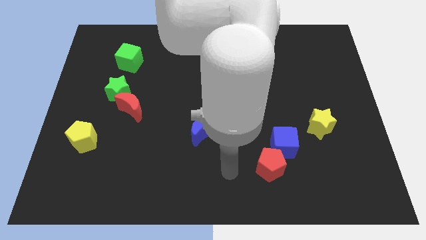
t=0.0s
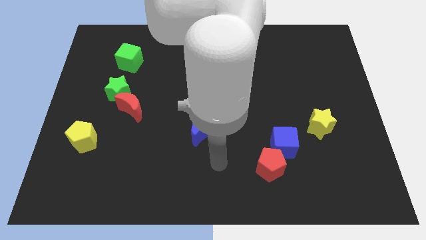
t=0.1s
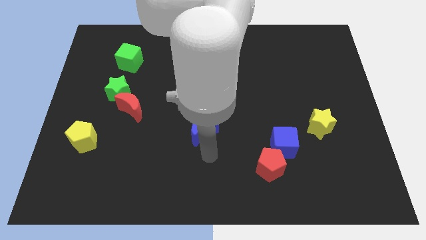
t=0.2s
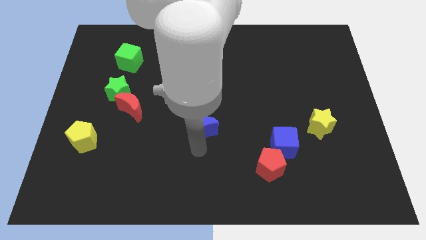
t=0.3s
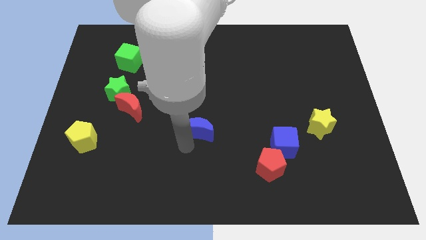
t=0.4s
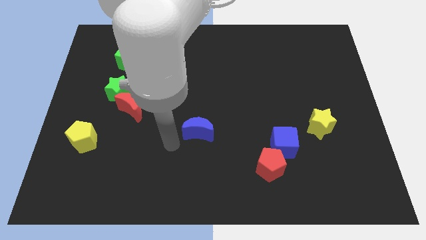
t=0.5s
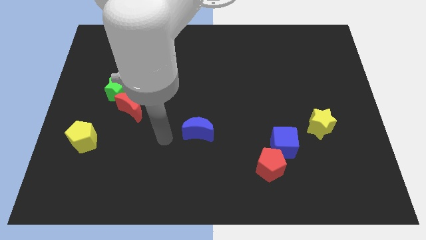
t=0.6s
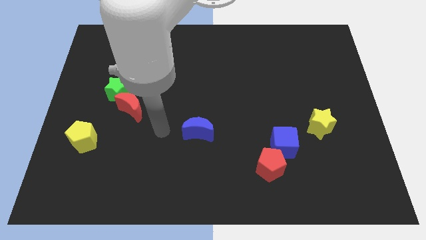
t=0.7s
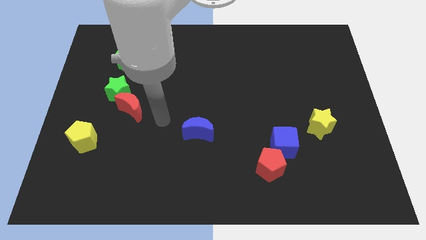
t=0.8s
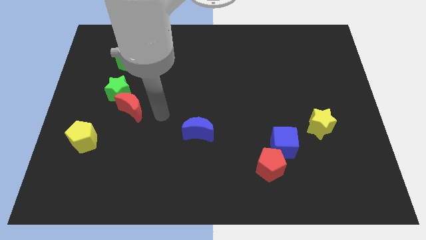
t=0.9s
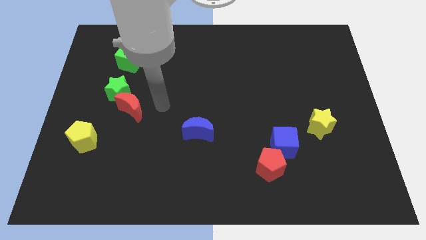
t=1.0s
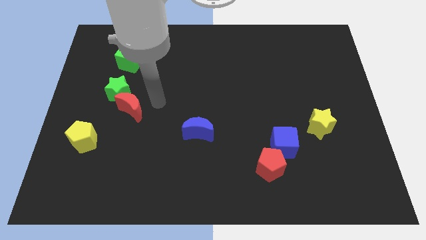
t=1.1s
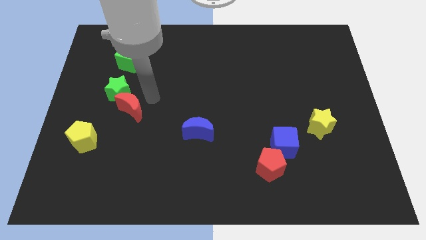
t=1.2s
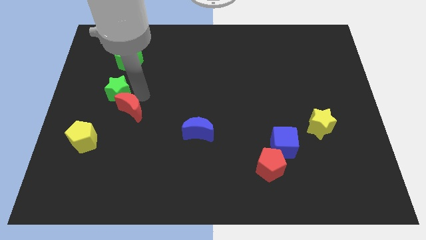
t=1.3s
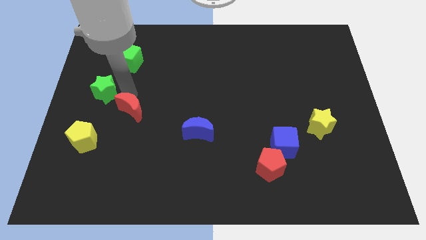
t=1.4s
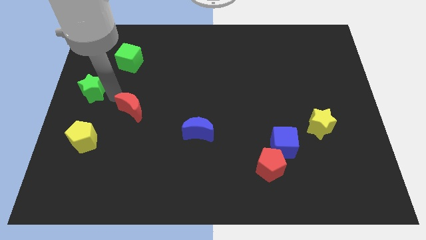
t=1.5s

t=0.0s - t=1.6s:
move the red moon away from the green star

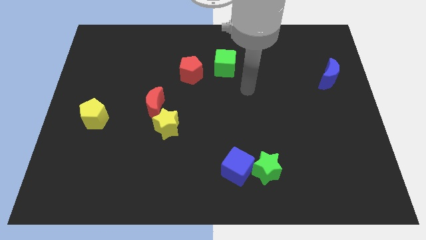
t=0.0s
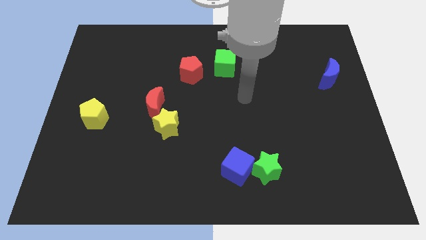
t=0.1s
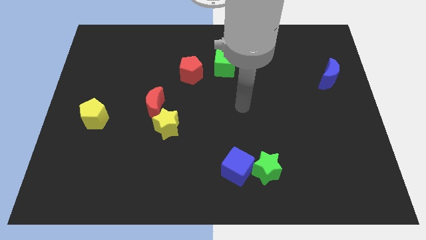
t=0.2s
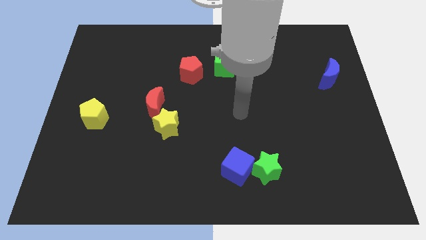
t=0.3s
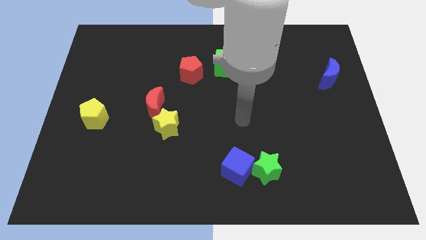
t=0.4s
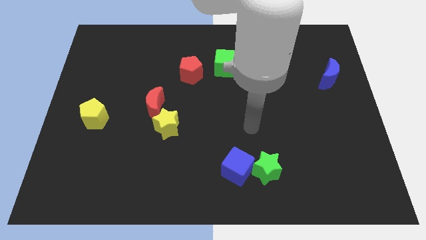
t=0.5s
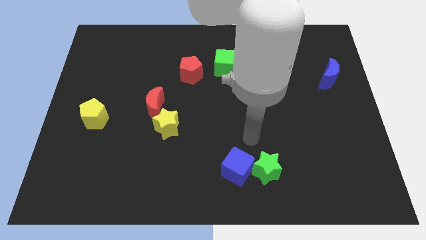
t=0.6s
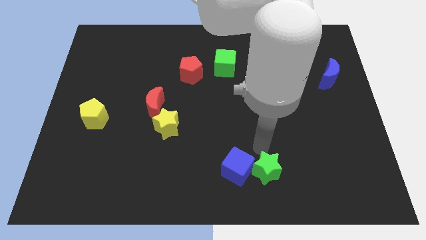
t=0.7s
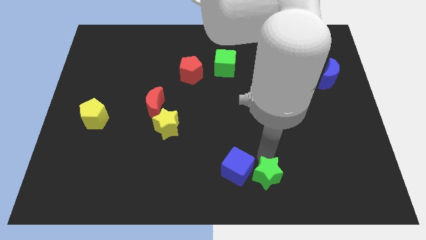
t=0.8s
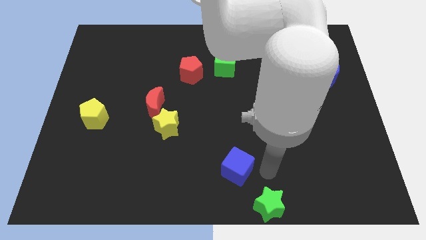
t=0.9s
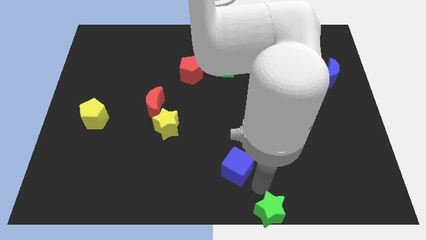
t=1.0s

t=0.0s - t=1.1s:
separate the blue cube from the green star

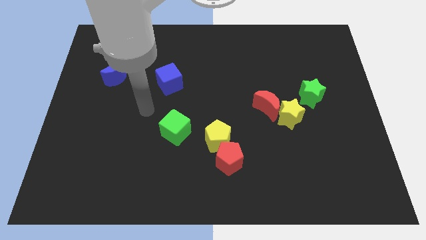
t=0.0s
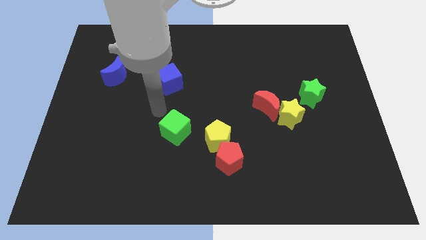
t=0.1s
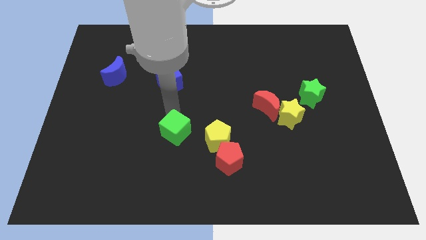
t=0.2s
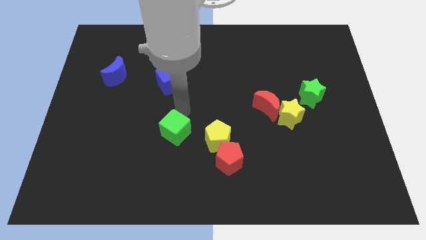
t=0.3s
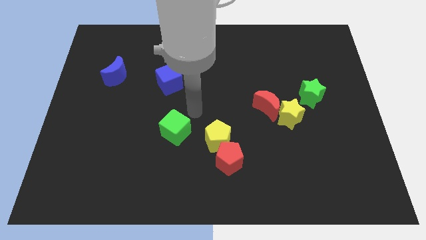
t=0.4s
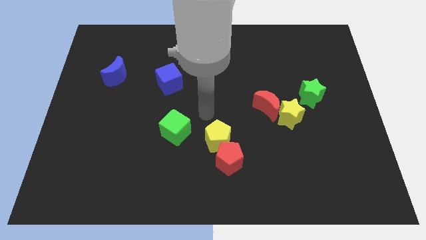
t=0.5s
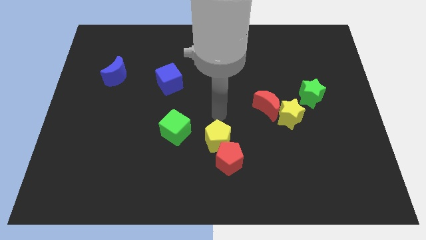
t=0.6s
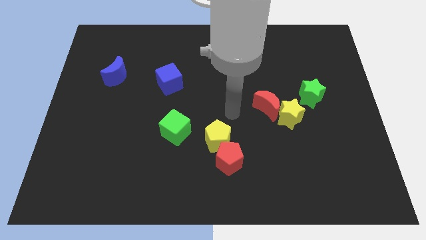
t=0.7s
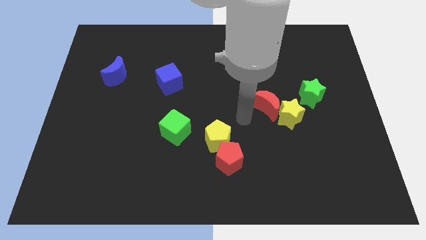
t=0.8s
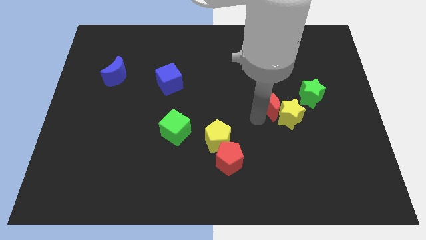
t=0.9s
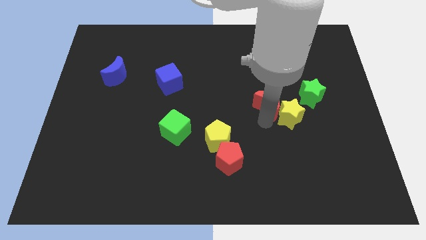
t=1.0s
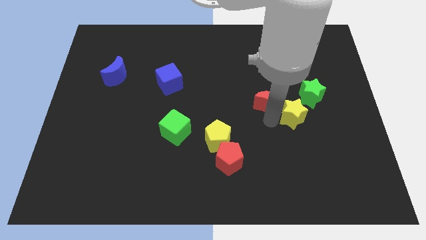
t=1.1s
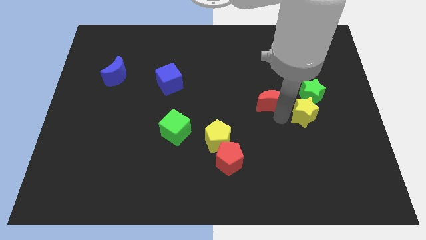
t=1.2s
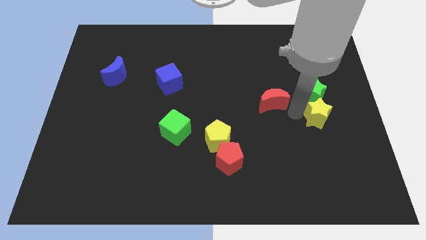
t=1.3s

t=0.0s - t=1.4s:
move the red moon away from the yellow star

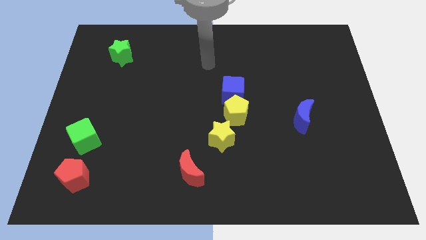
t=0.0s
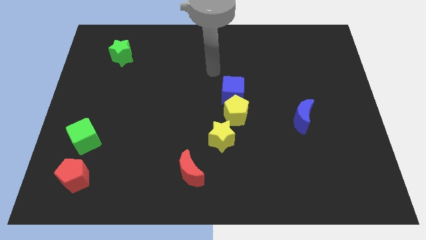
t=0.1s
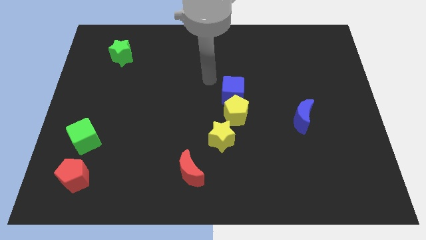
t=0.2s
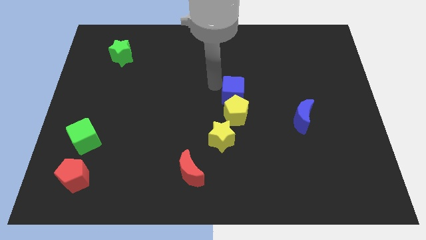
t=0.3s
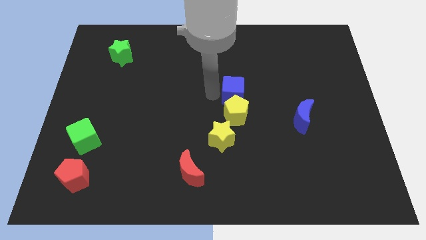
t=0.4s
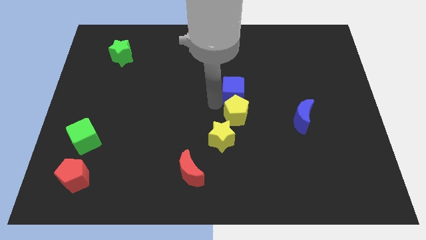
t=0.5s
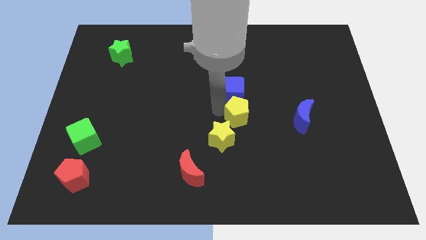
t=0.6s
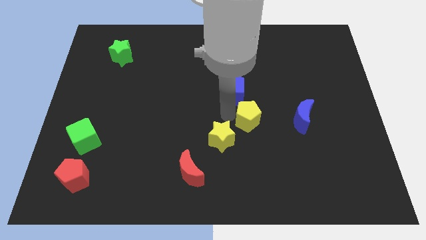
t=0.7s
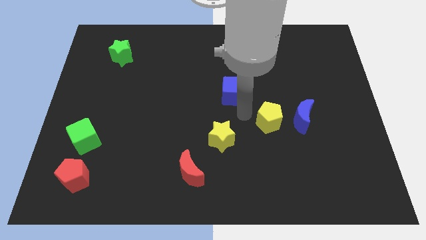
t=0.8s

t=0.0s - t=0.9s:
move the blue cube away from the yellow pentagon

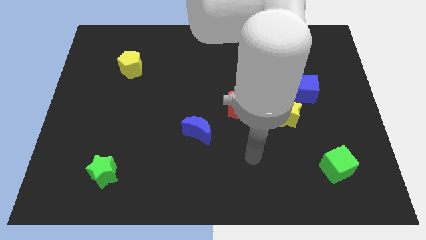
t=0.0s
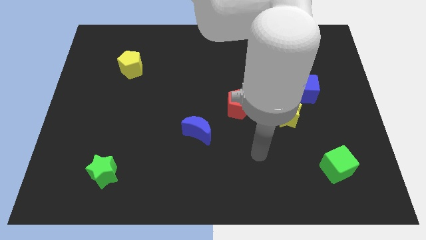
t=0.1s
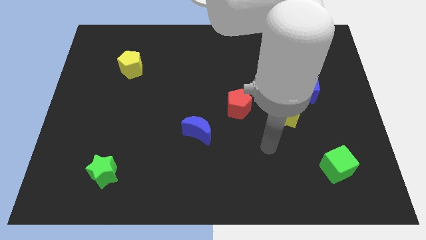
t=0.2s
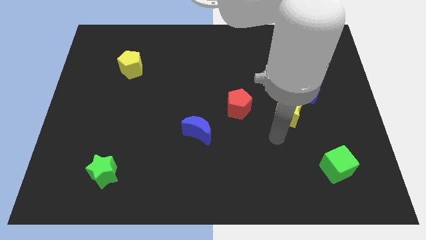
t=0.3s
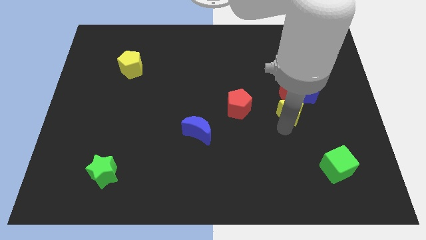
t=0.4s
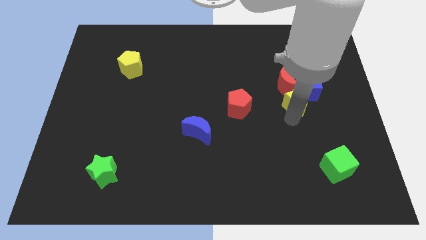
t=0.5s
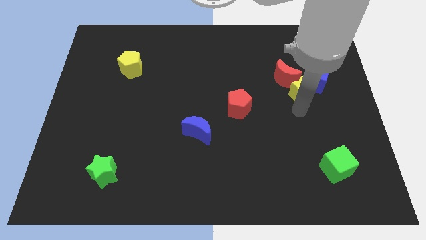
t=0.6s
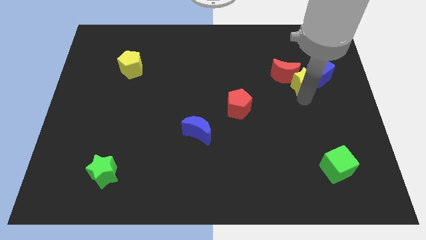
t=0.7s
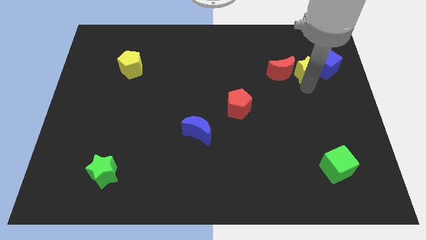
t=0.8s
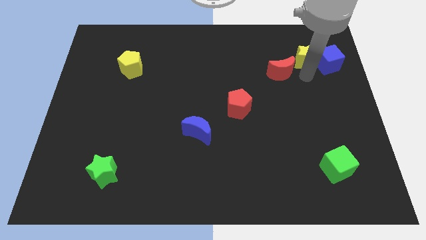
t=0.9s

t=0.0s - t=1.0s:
move the red moon away from the blue cube and yellow star

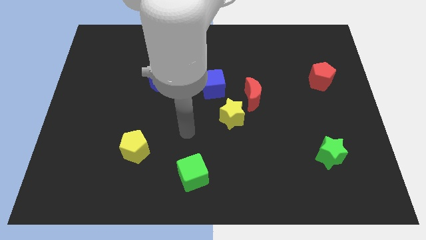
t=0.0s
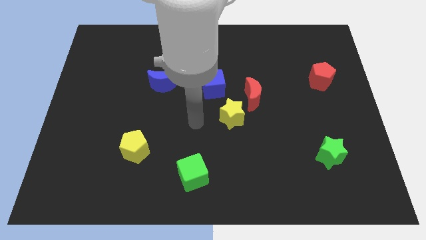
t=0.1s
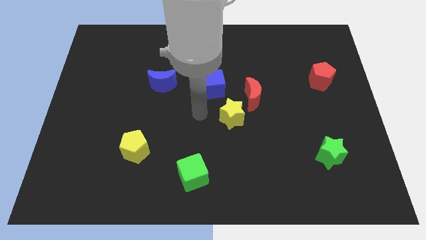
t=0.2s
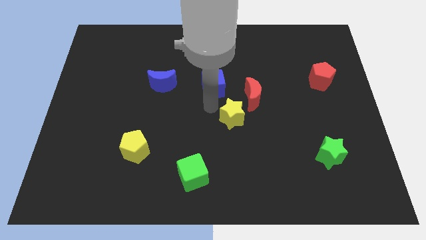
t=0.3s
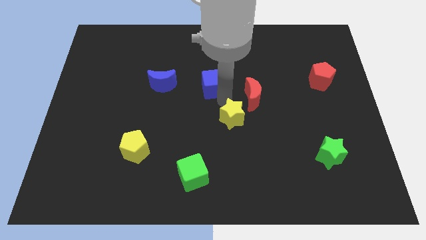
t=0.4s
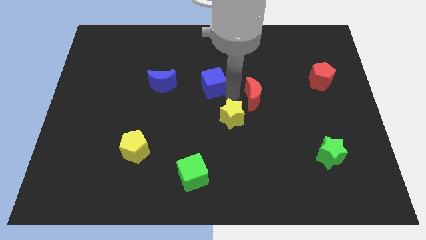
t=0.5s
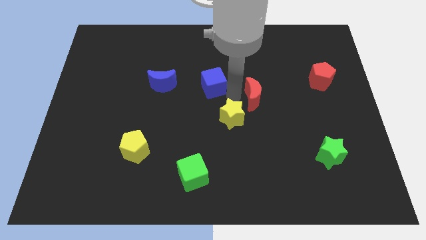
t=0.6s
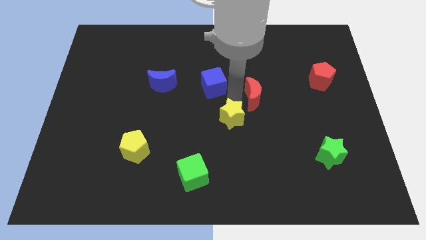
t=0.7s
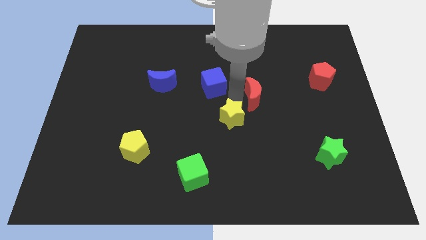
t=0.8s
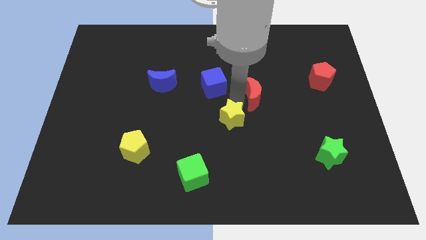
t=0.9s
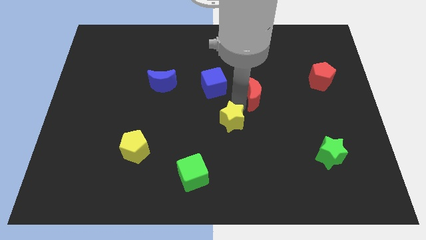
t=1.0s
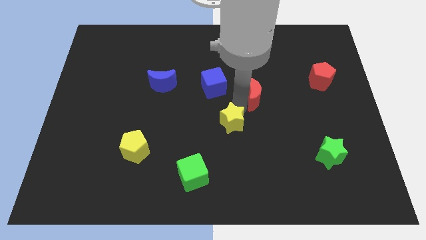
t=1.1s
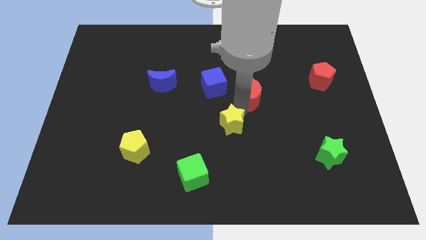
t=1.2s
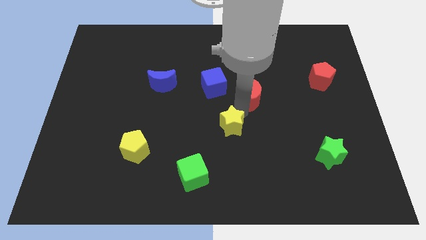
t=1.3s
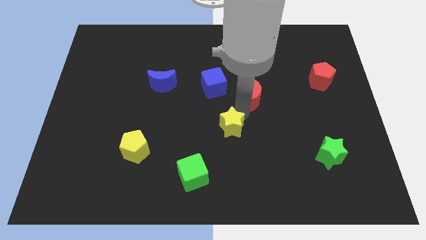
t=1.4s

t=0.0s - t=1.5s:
pull the yellow star apart from the red moon and blue cube

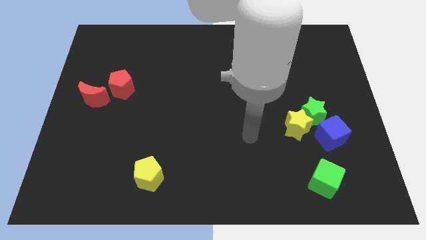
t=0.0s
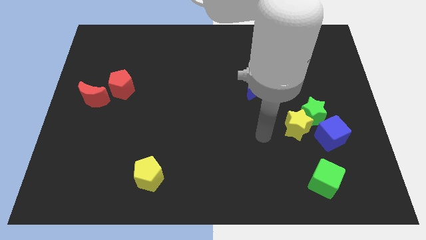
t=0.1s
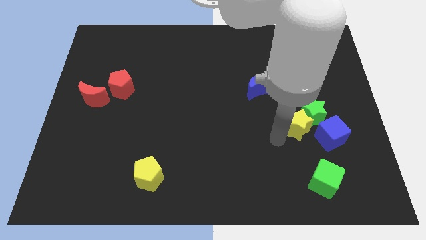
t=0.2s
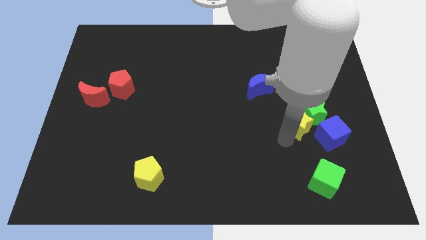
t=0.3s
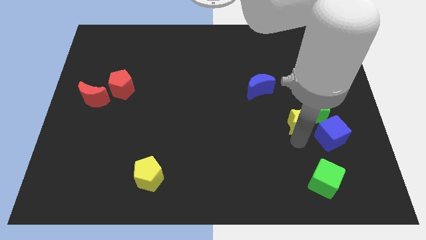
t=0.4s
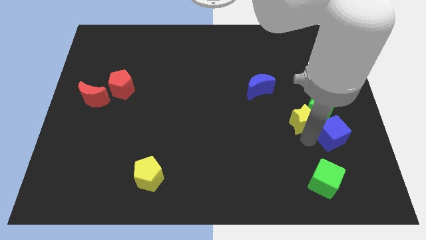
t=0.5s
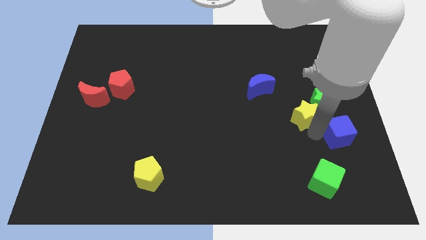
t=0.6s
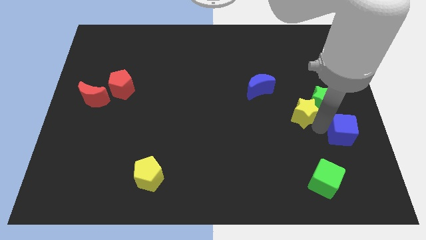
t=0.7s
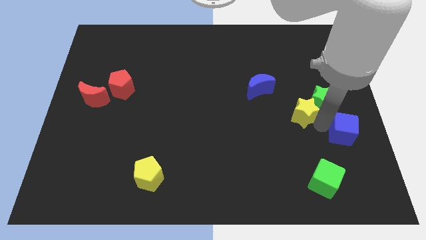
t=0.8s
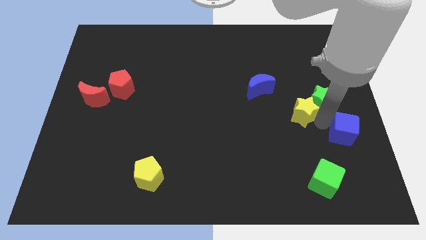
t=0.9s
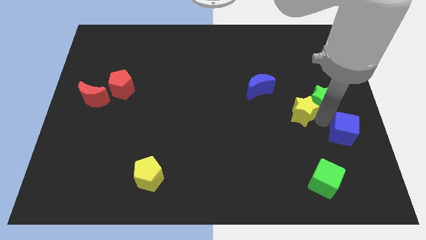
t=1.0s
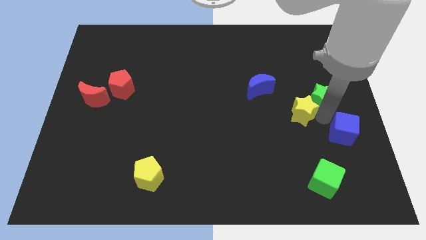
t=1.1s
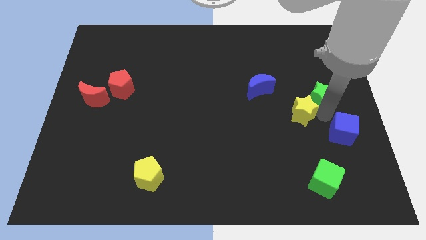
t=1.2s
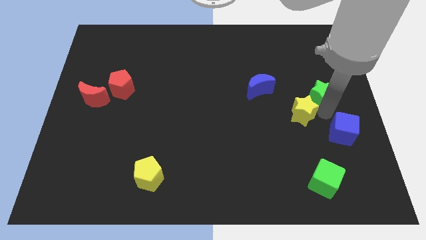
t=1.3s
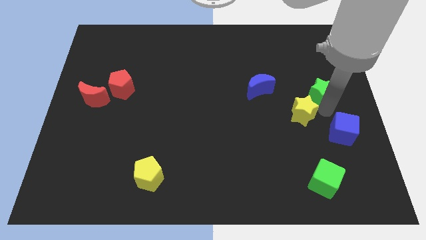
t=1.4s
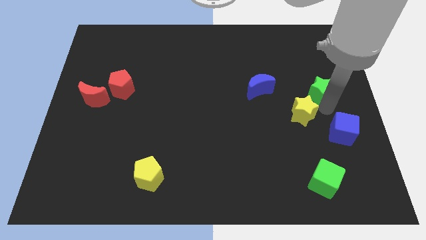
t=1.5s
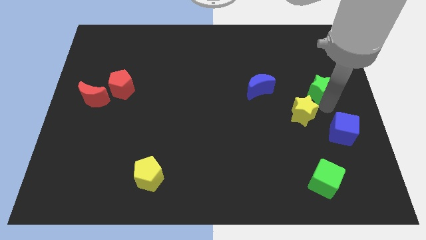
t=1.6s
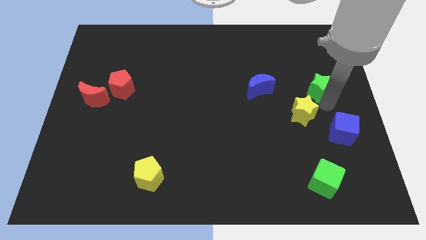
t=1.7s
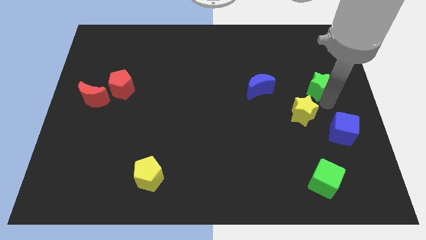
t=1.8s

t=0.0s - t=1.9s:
move the green star away from the yellow star and blue cube
